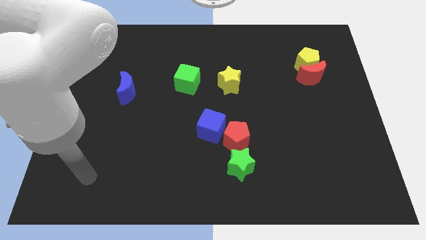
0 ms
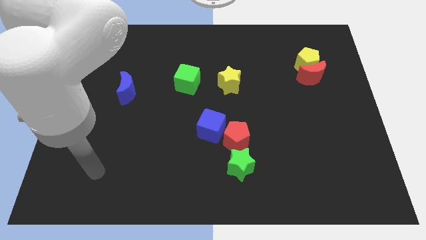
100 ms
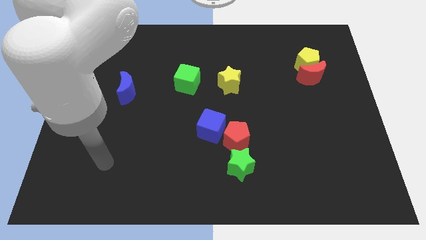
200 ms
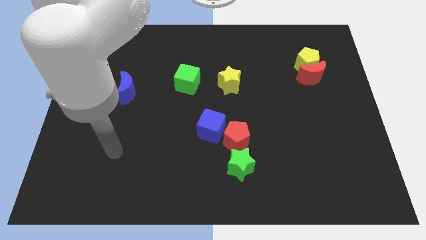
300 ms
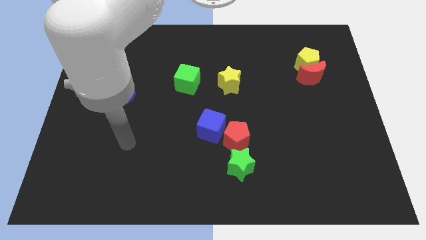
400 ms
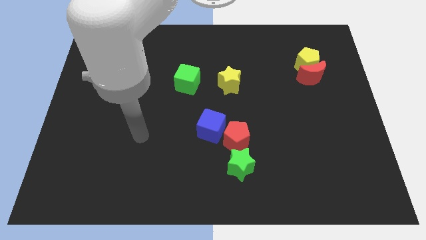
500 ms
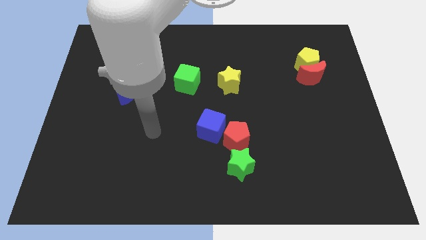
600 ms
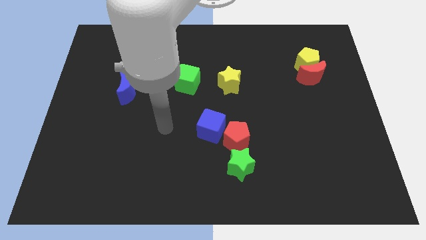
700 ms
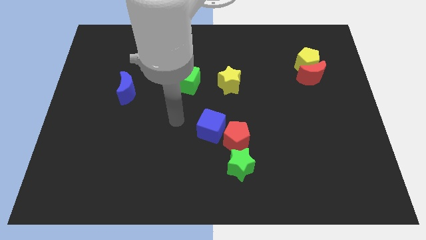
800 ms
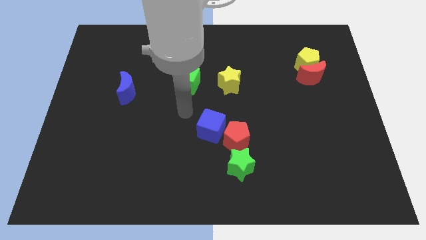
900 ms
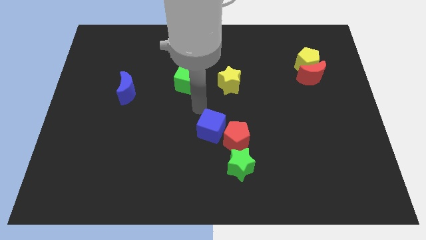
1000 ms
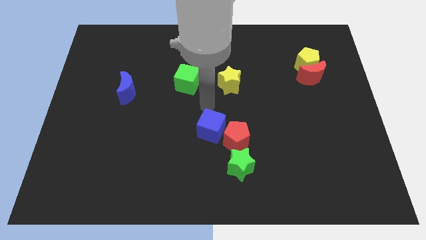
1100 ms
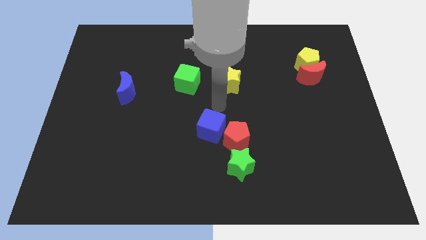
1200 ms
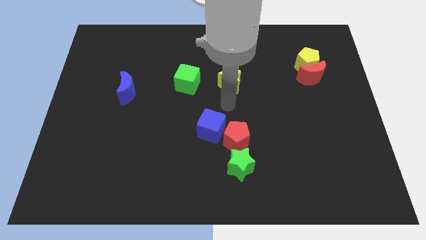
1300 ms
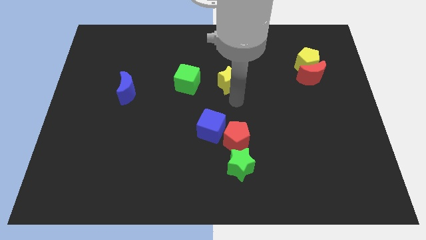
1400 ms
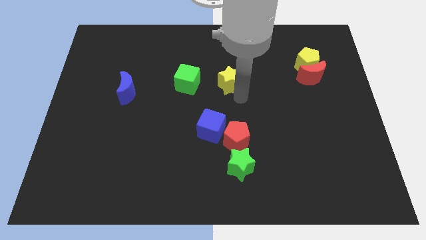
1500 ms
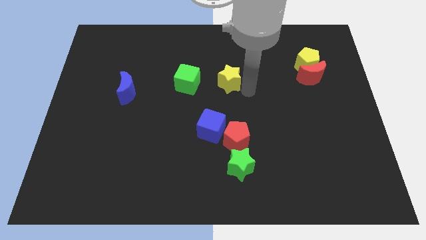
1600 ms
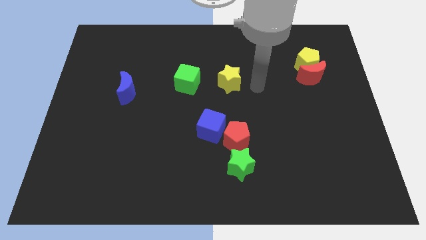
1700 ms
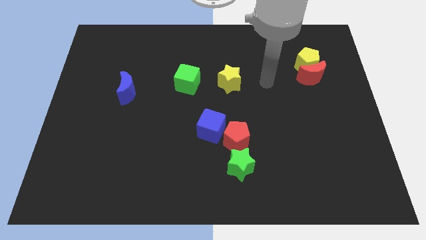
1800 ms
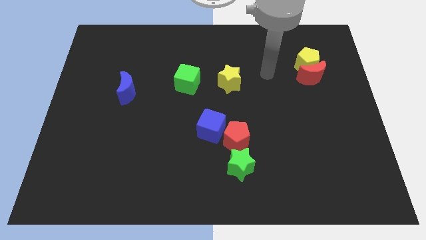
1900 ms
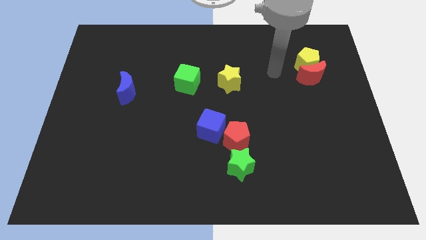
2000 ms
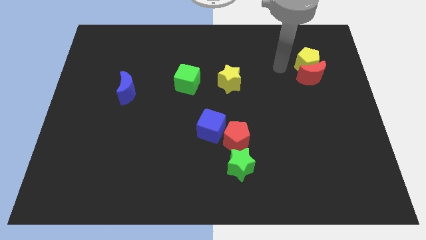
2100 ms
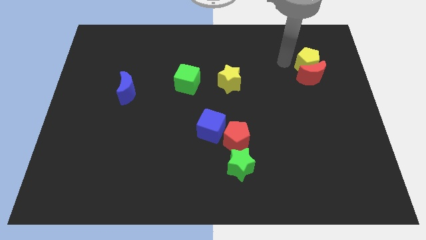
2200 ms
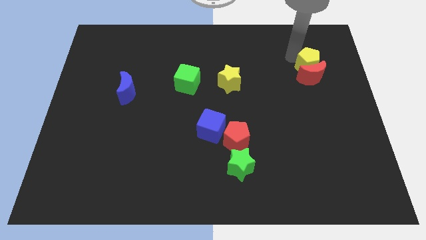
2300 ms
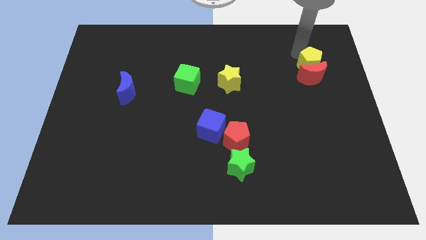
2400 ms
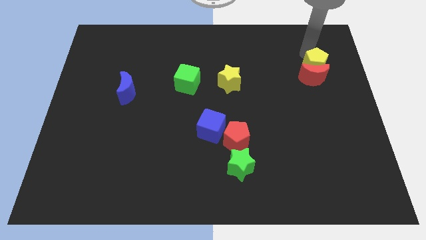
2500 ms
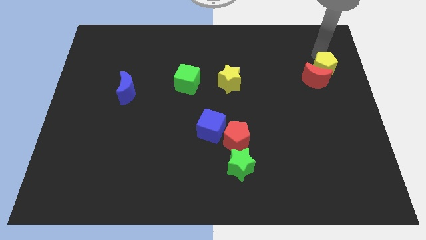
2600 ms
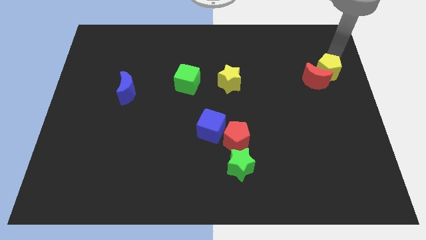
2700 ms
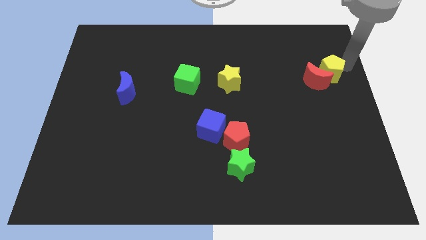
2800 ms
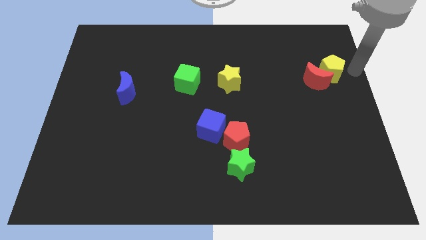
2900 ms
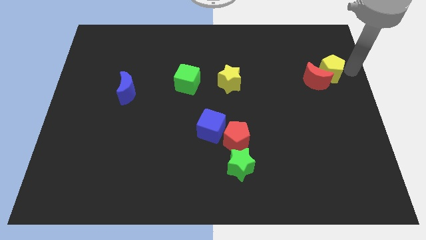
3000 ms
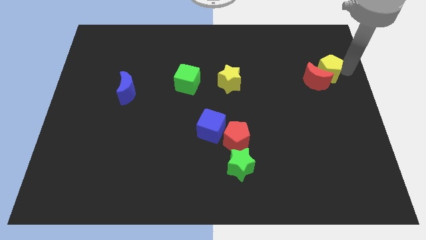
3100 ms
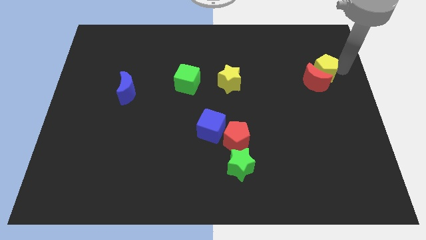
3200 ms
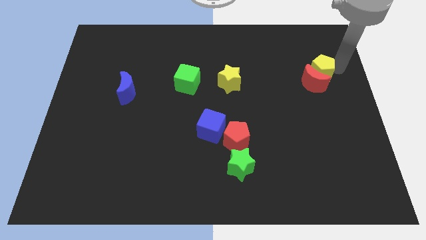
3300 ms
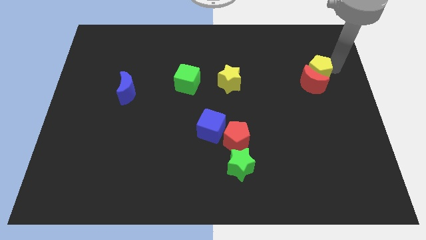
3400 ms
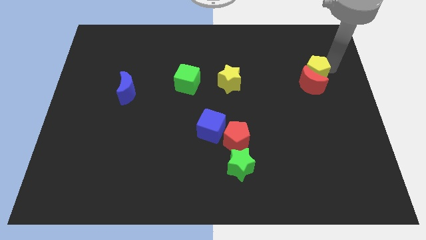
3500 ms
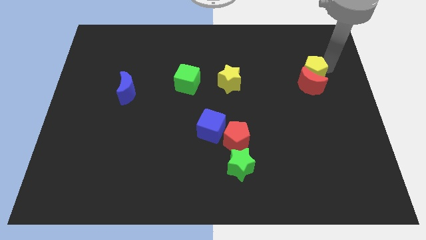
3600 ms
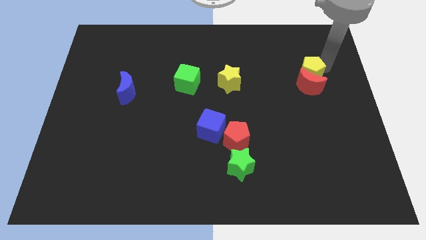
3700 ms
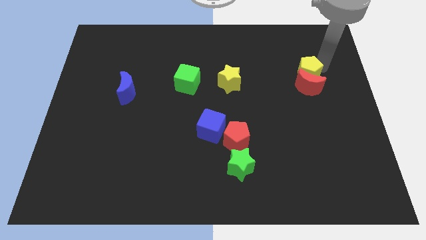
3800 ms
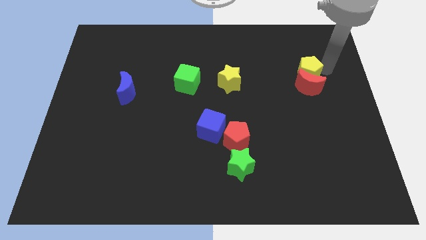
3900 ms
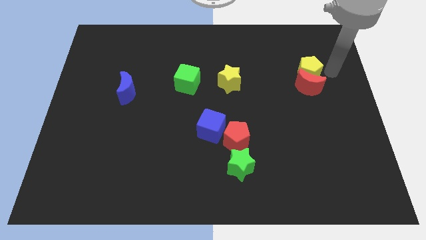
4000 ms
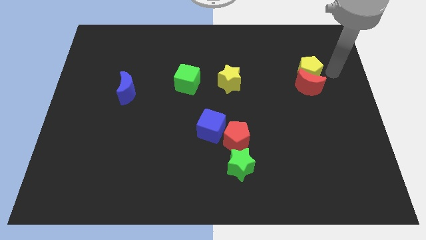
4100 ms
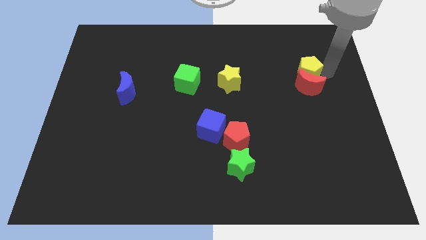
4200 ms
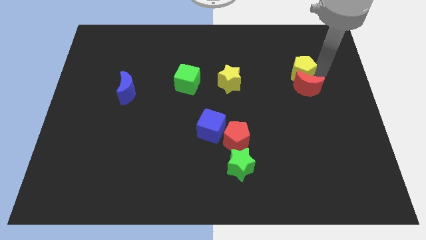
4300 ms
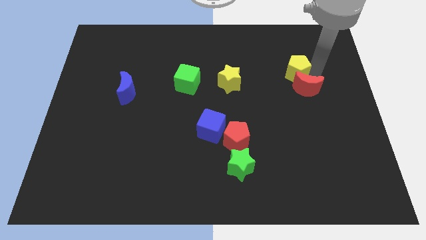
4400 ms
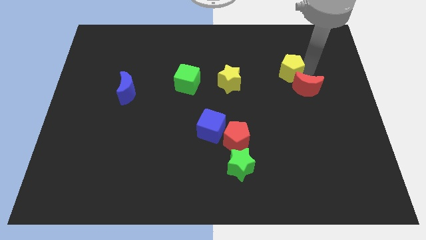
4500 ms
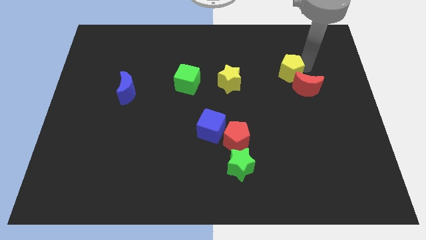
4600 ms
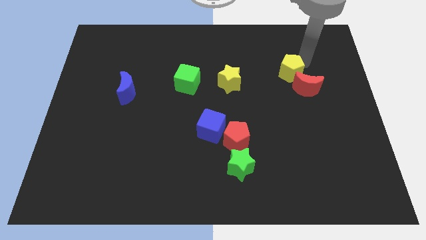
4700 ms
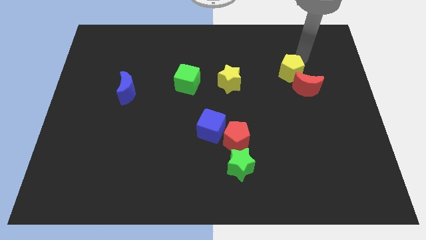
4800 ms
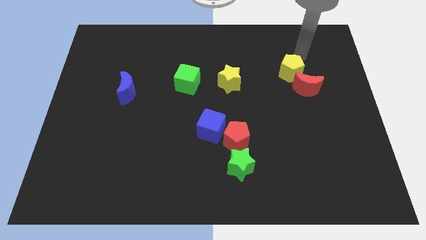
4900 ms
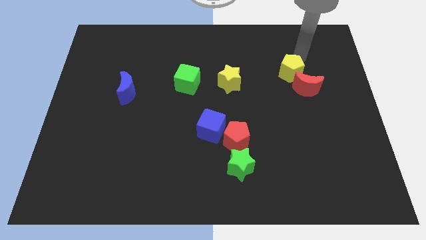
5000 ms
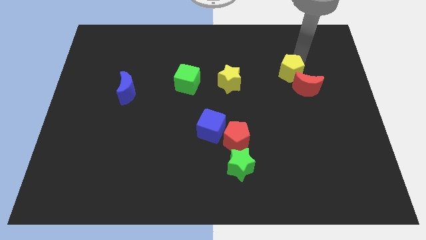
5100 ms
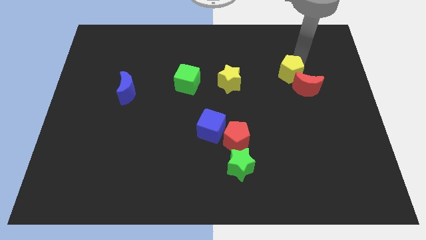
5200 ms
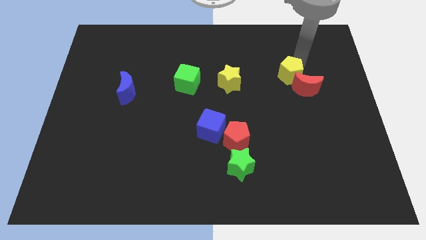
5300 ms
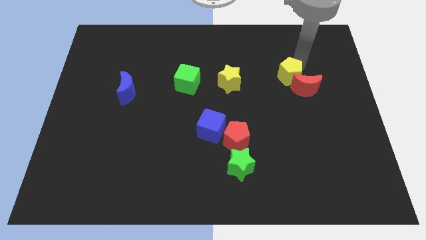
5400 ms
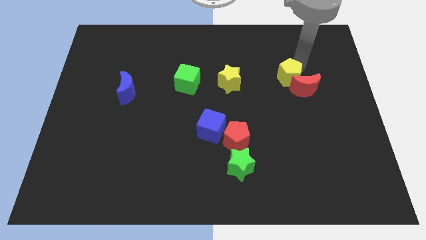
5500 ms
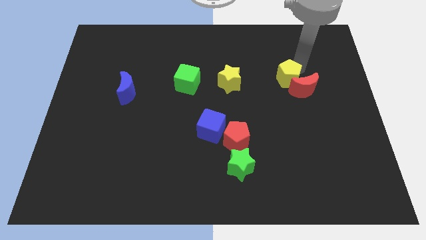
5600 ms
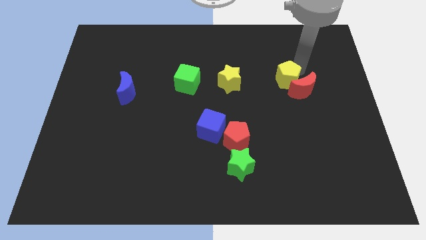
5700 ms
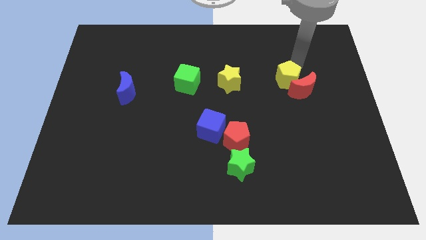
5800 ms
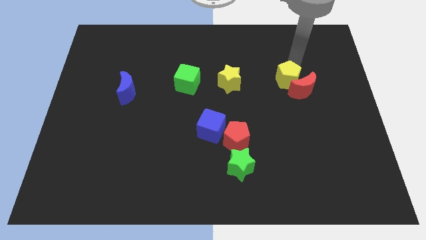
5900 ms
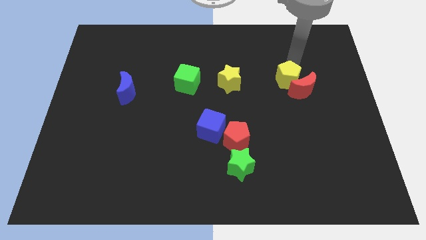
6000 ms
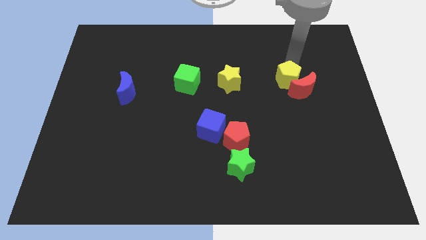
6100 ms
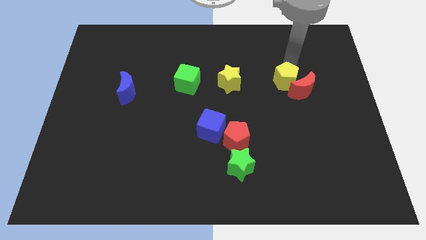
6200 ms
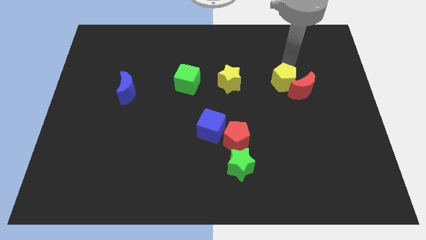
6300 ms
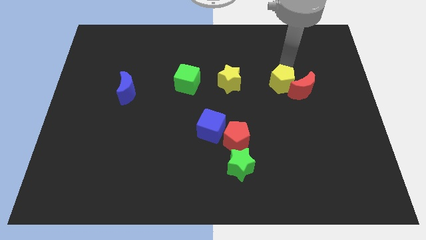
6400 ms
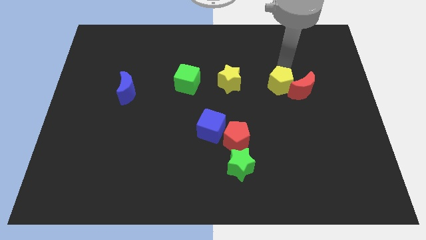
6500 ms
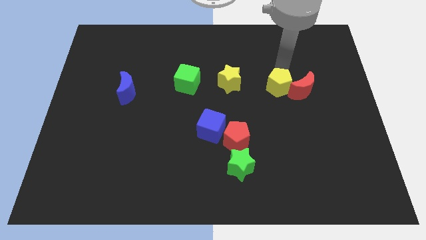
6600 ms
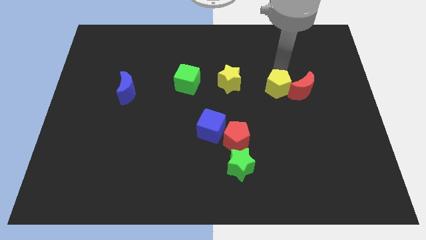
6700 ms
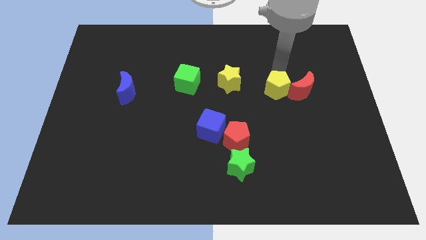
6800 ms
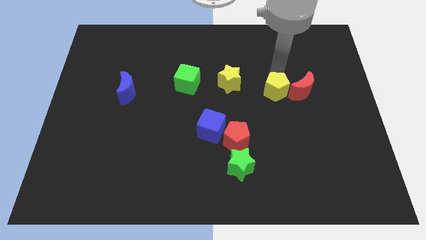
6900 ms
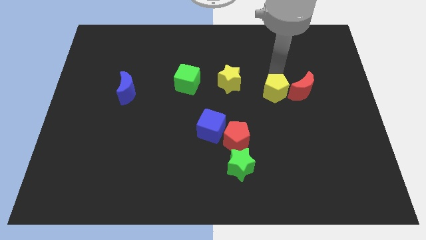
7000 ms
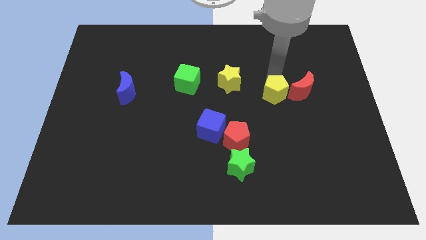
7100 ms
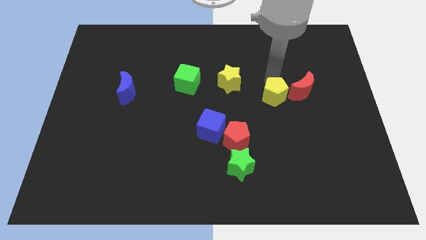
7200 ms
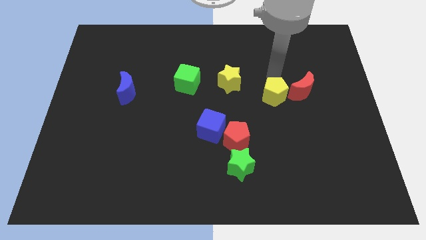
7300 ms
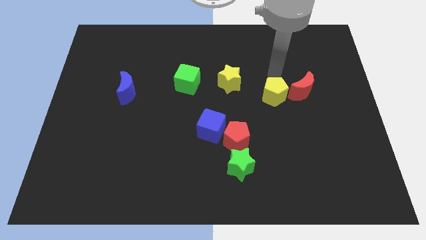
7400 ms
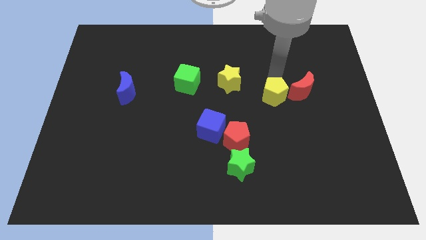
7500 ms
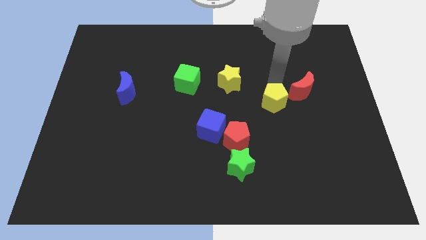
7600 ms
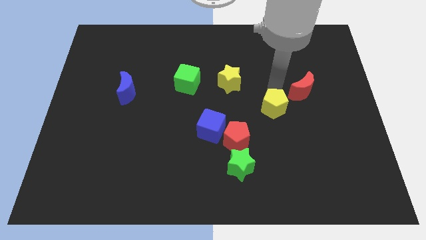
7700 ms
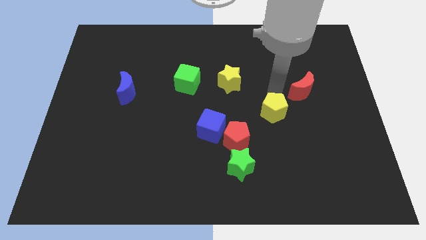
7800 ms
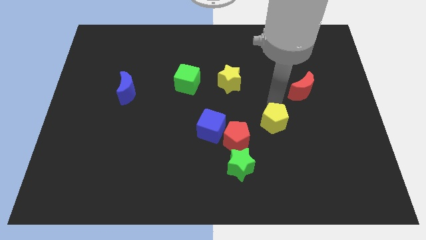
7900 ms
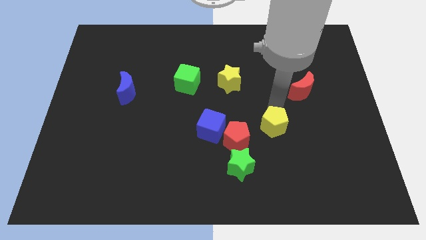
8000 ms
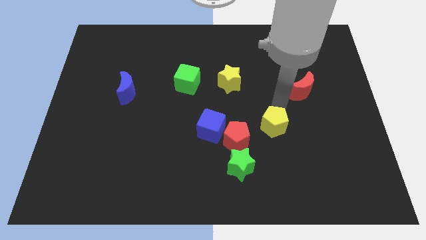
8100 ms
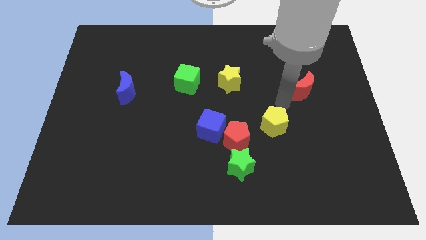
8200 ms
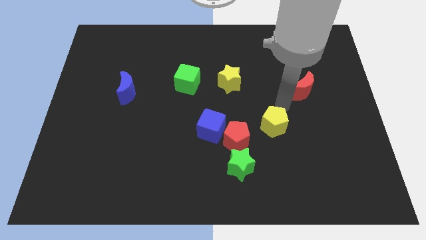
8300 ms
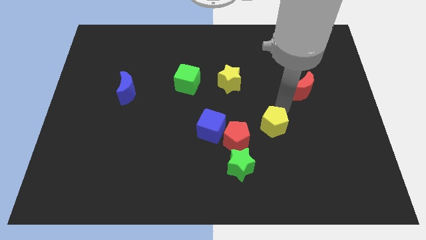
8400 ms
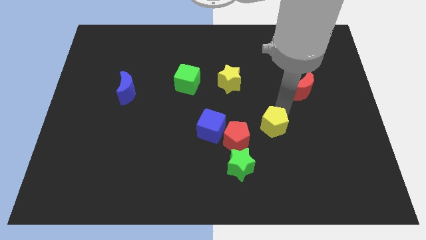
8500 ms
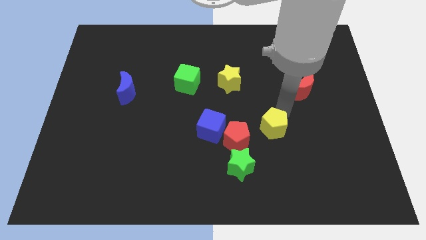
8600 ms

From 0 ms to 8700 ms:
push the yellow pentagon to the top right of the green star
